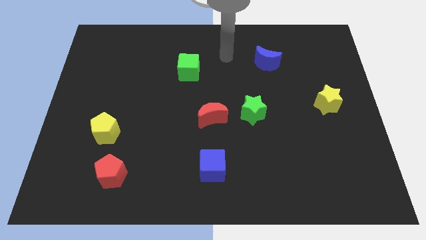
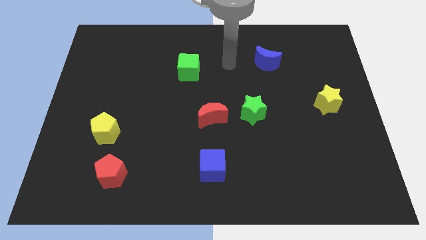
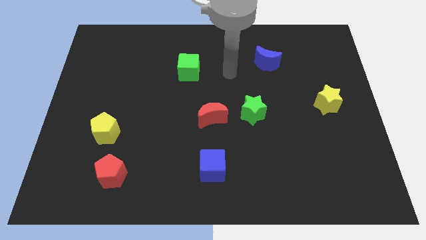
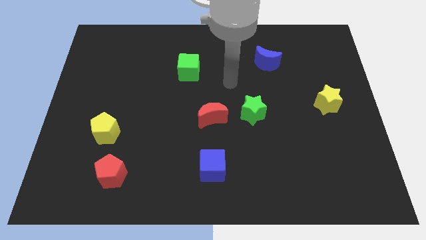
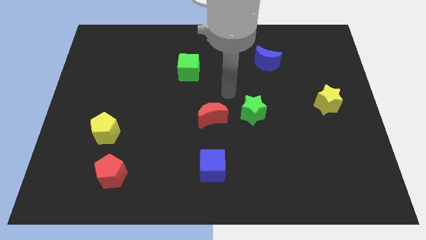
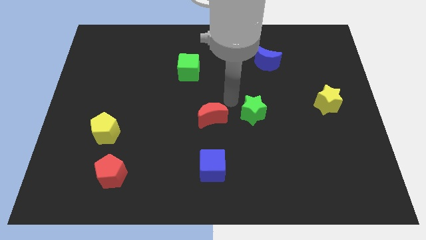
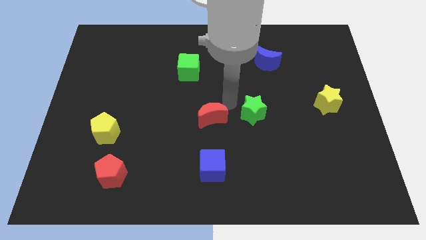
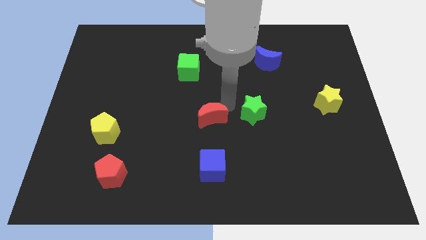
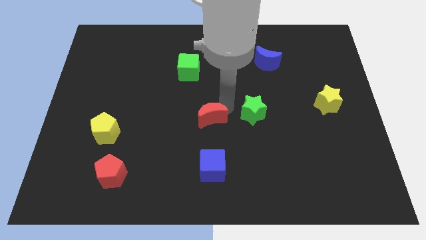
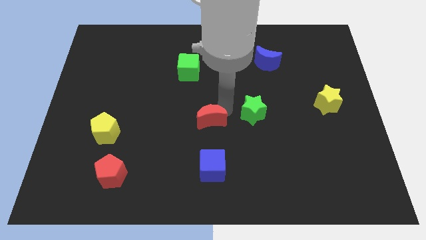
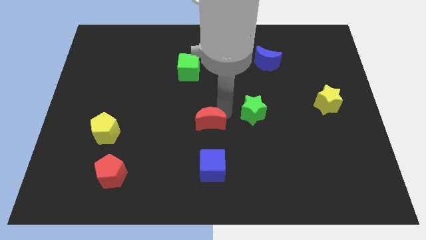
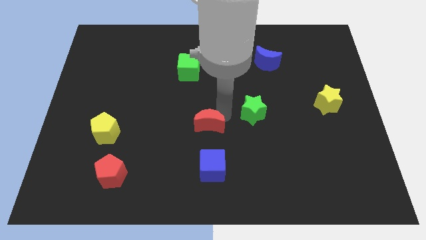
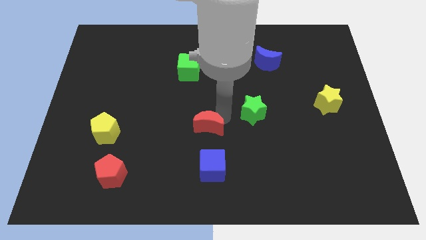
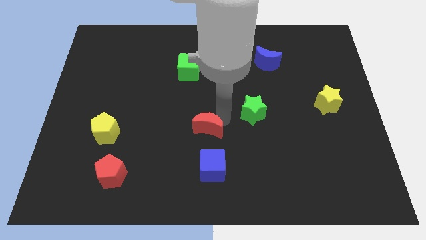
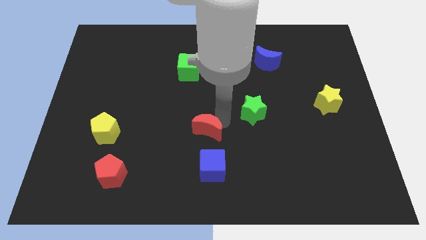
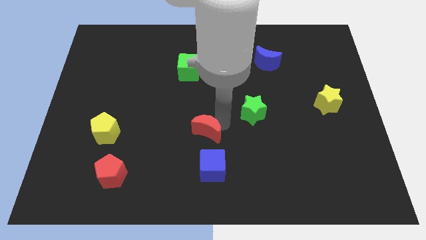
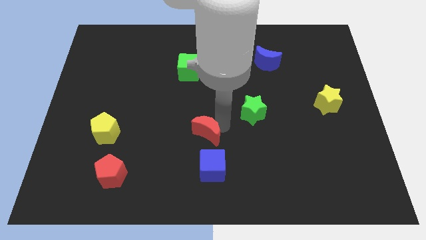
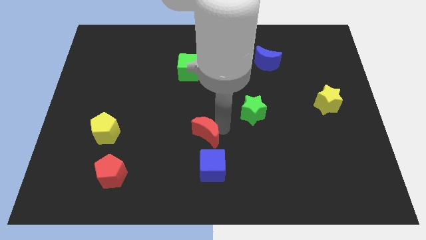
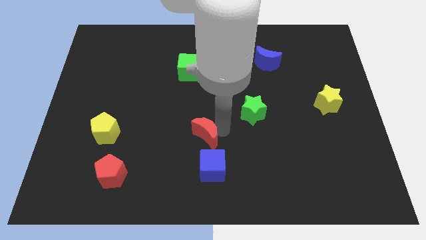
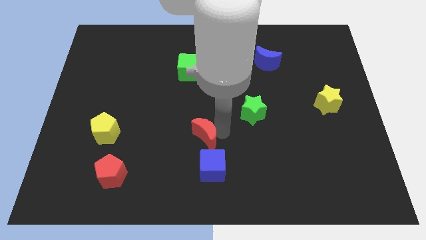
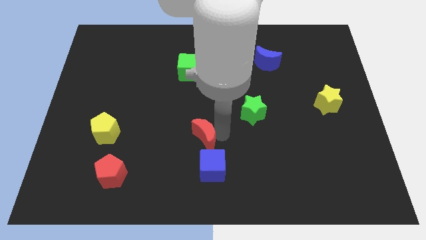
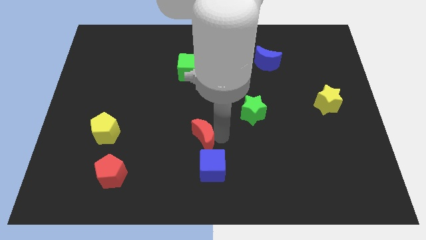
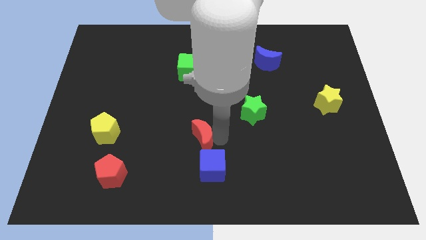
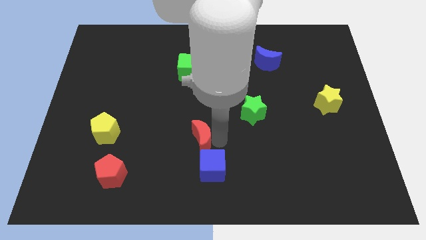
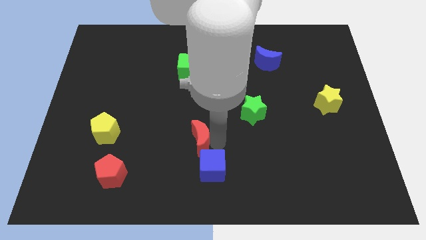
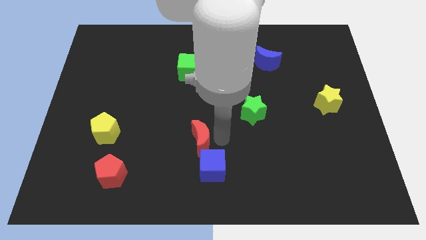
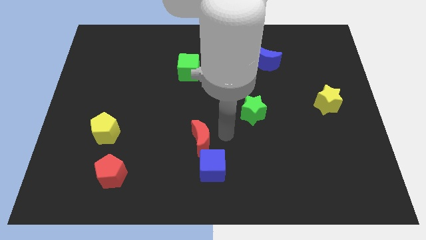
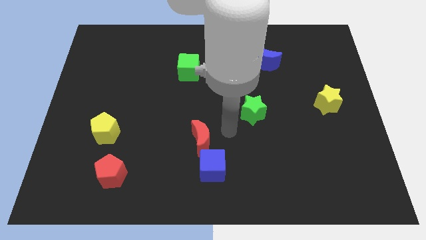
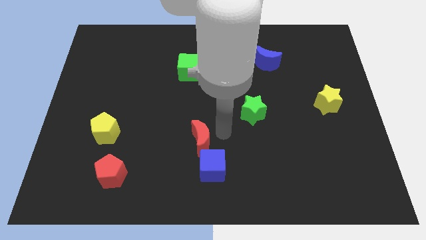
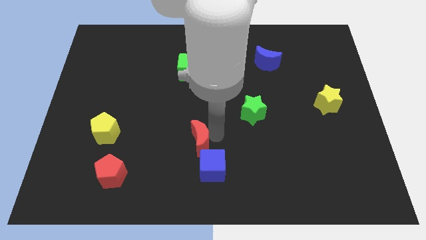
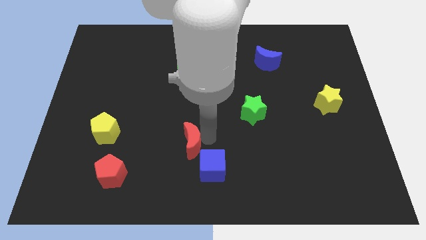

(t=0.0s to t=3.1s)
slightly slide the red moon diagonally downwards and left

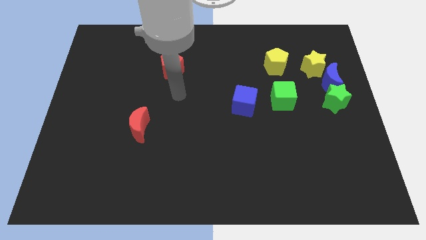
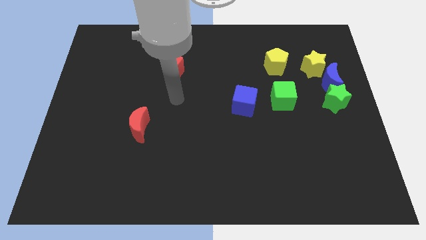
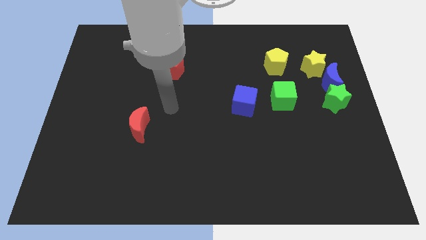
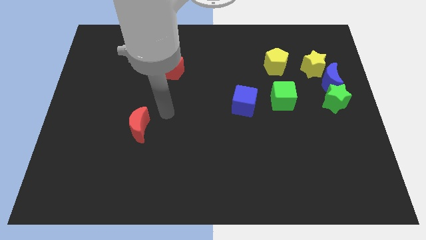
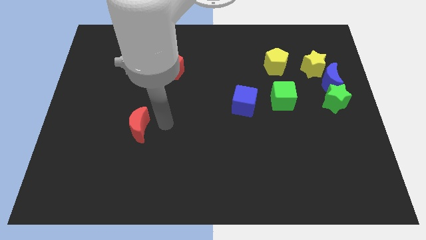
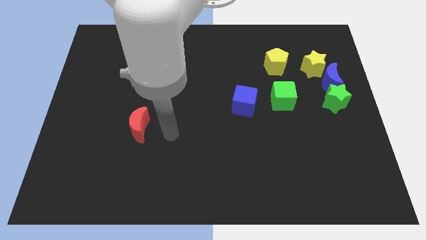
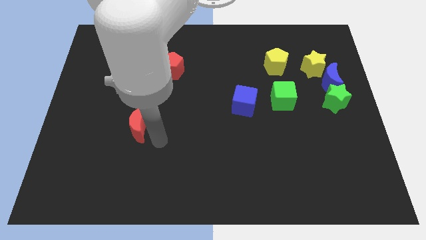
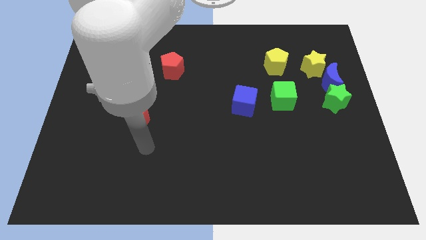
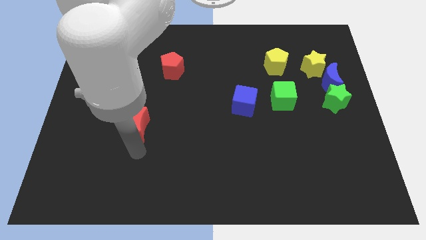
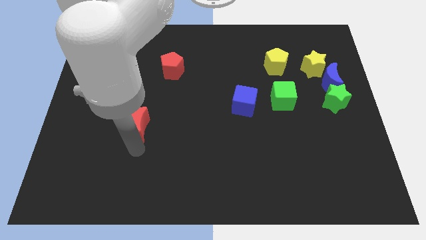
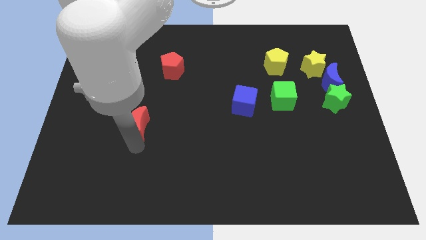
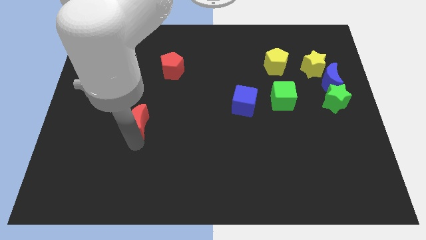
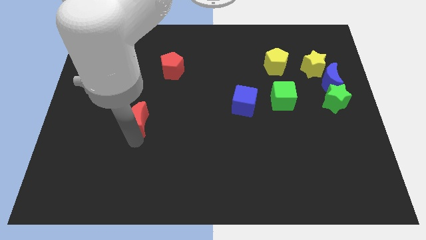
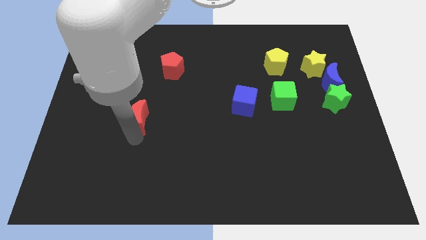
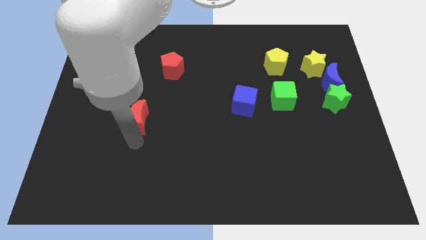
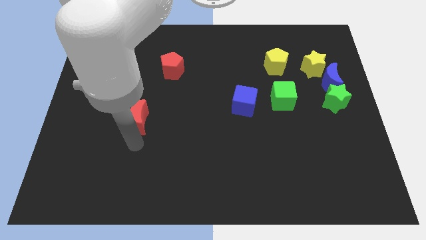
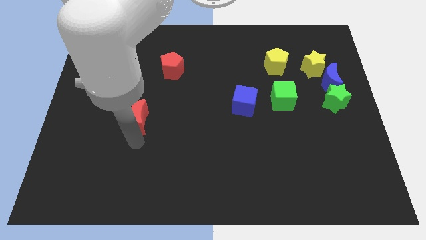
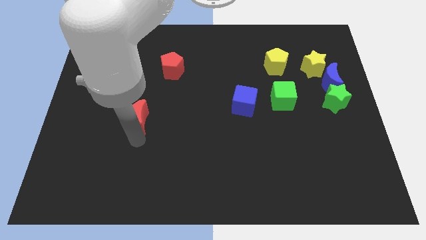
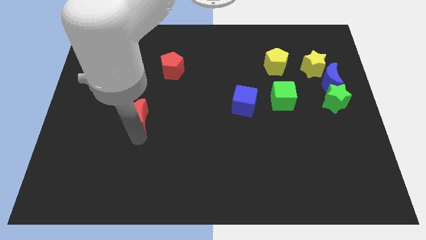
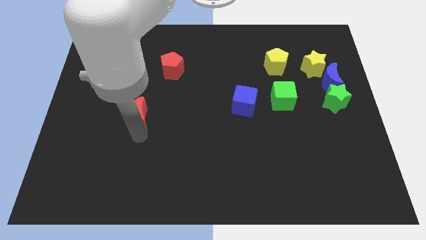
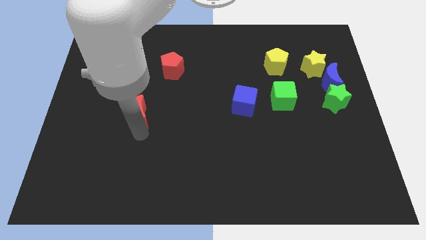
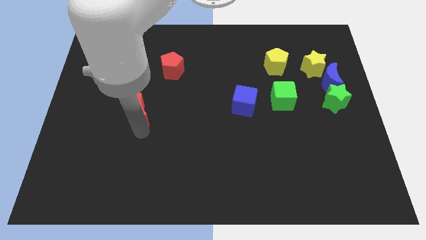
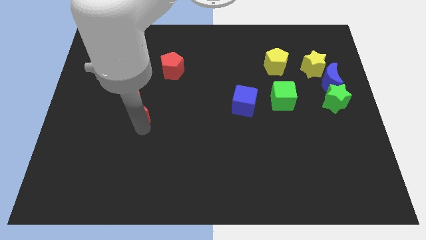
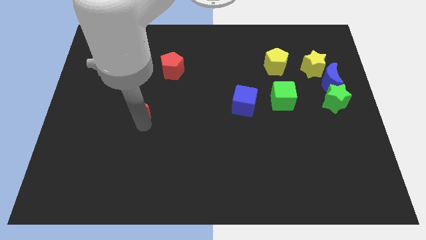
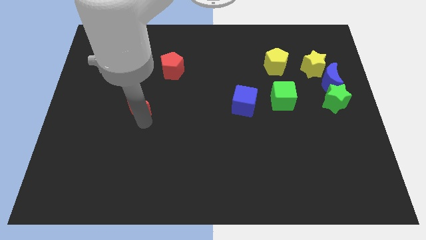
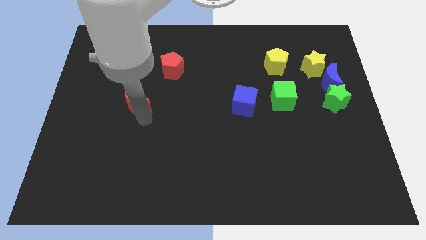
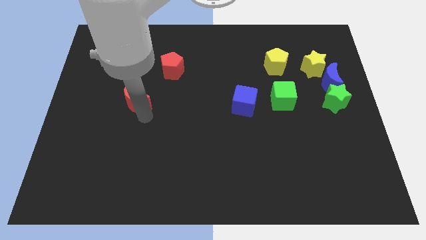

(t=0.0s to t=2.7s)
slide the red moon a bit up

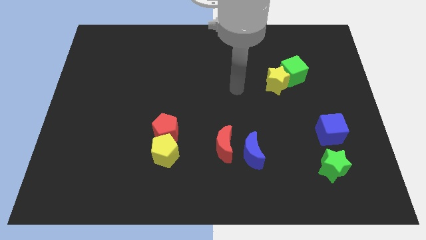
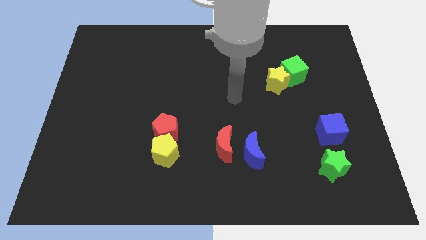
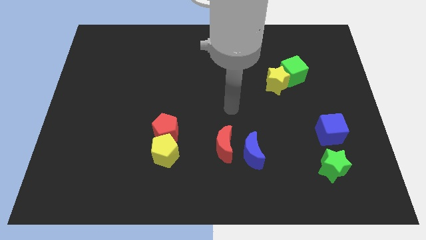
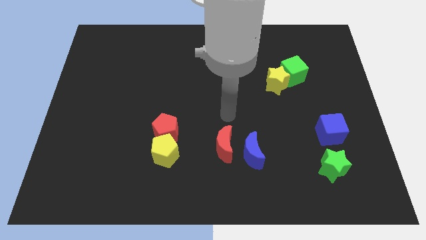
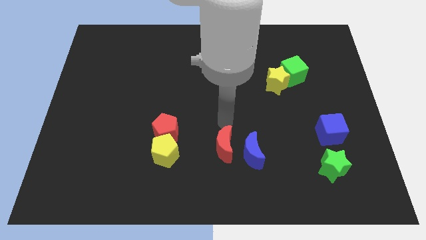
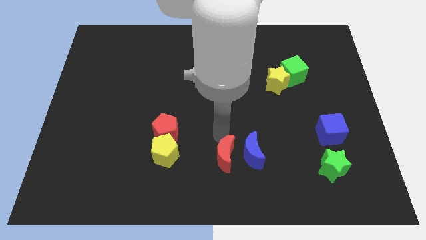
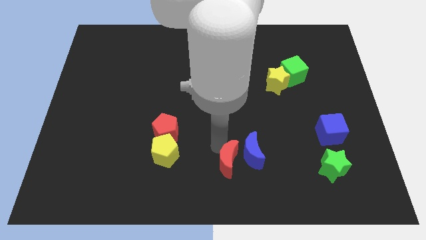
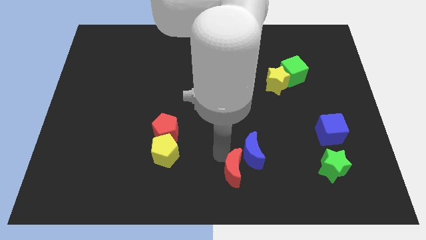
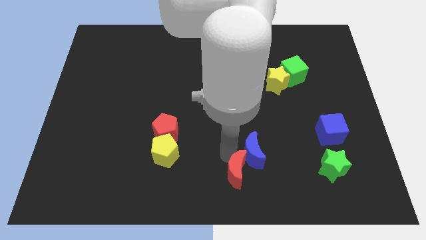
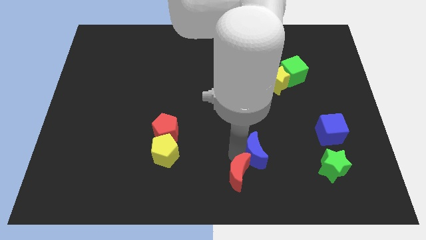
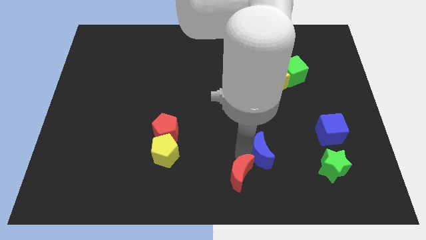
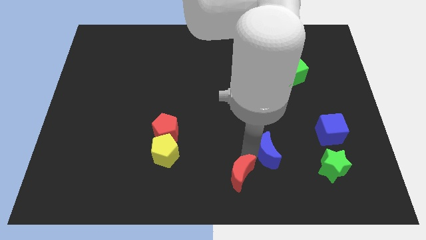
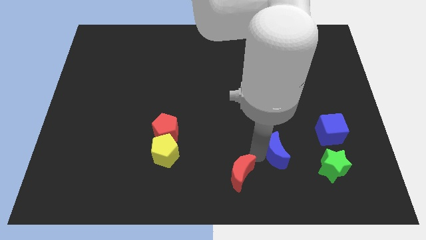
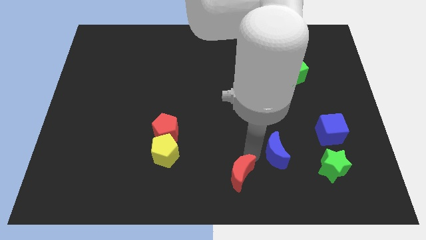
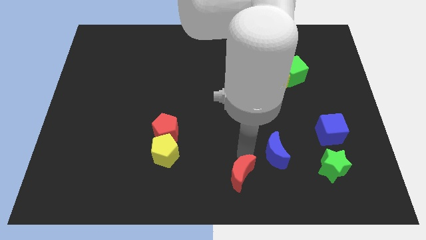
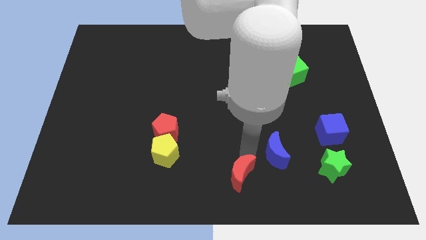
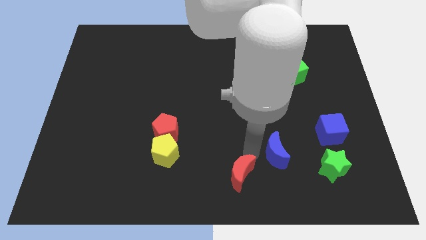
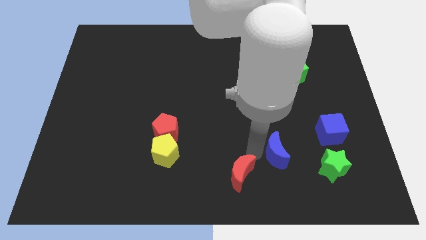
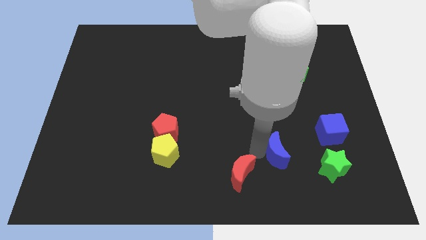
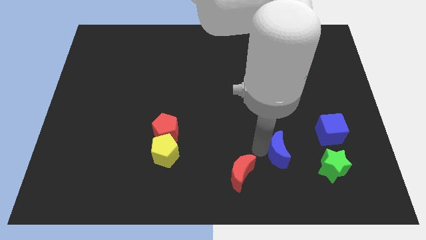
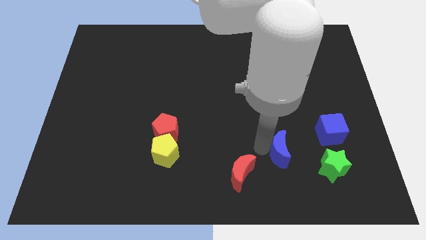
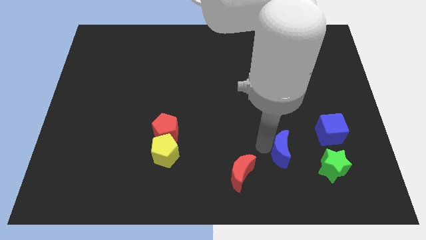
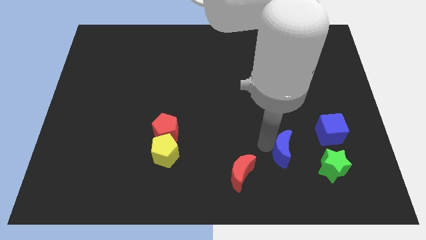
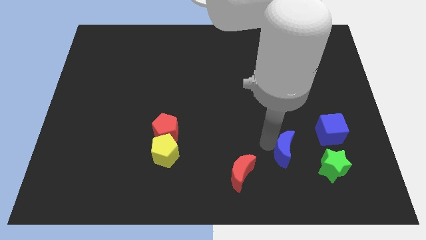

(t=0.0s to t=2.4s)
move the blue moon a bit right
